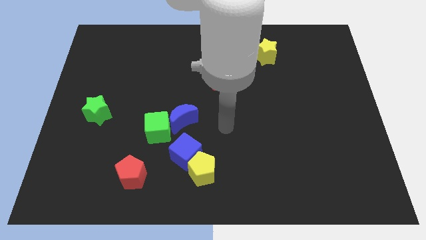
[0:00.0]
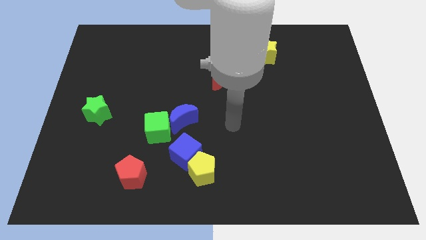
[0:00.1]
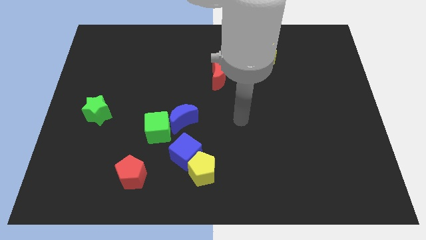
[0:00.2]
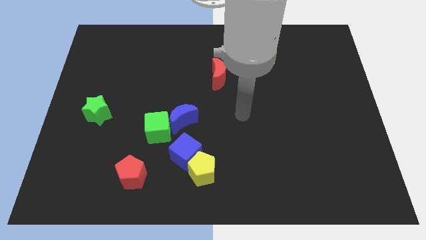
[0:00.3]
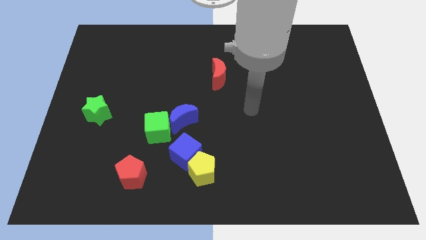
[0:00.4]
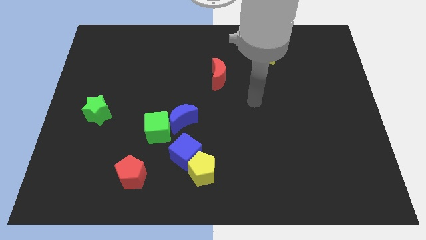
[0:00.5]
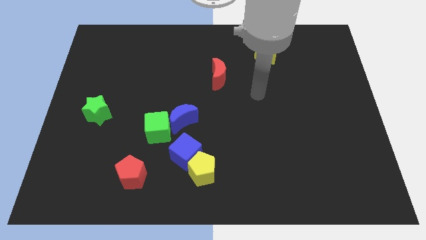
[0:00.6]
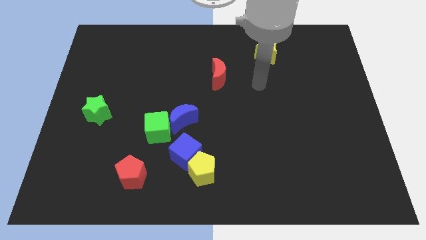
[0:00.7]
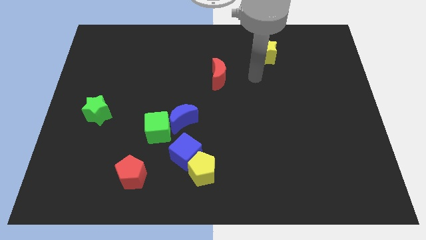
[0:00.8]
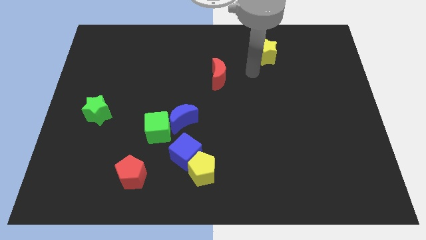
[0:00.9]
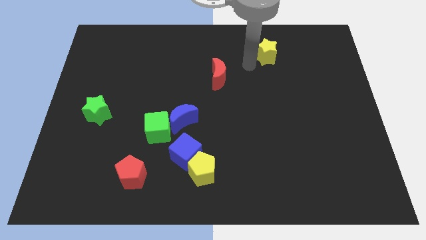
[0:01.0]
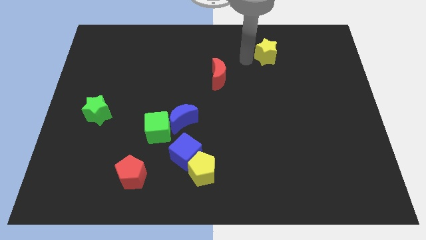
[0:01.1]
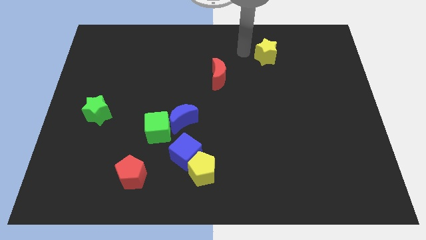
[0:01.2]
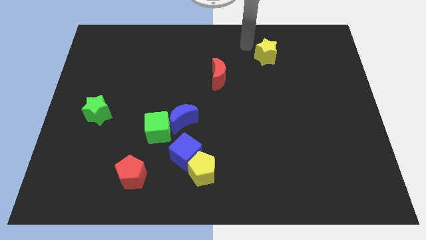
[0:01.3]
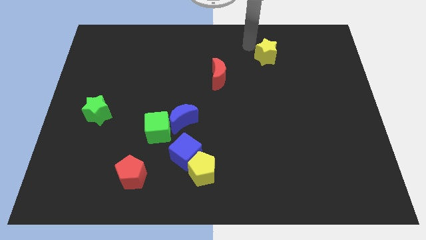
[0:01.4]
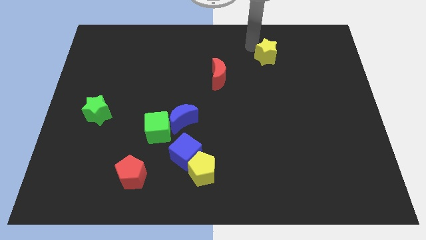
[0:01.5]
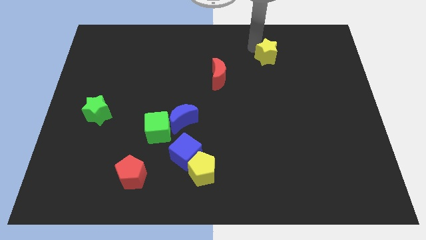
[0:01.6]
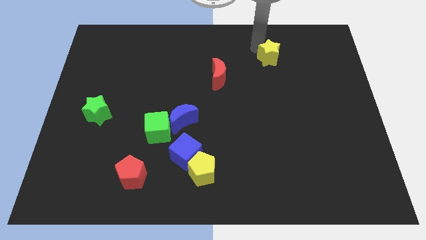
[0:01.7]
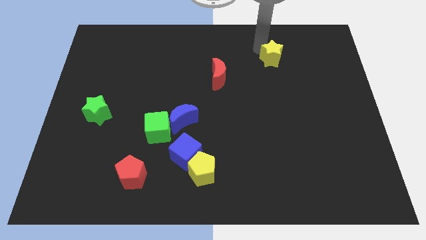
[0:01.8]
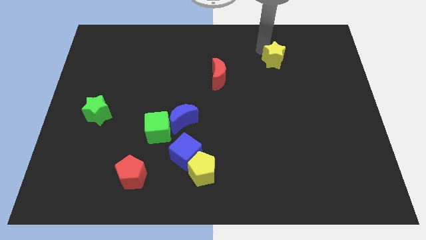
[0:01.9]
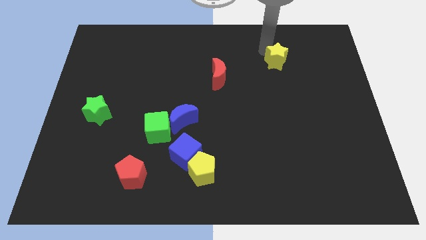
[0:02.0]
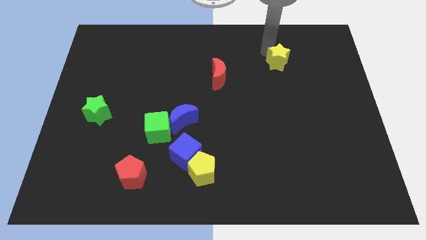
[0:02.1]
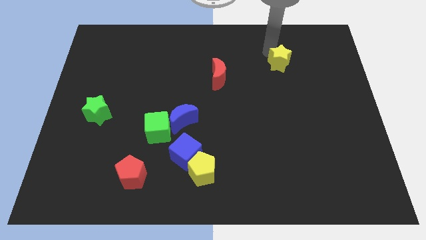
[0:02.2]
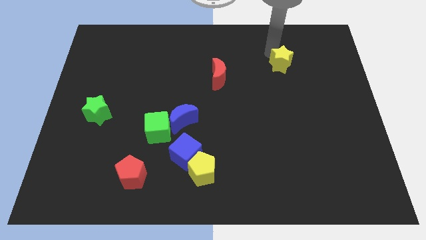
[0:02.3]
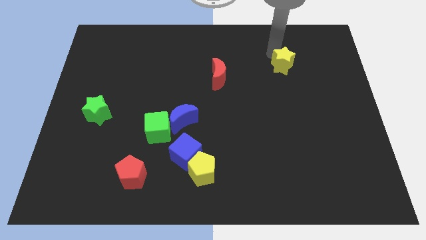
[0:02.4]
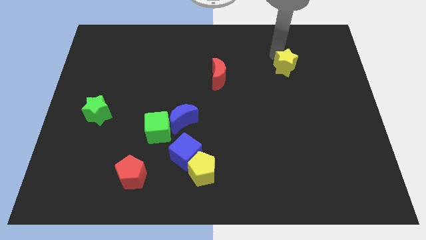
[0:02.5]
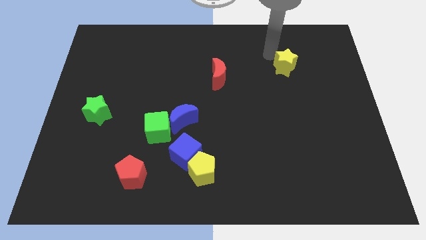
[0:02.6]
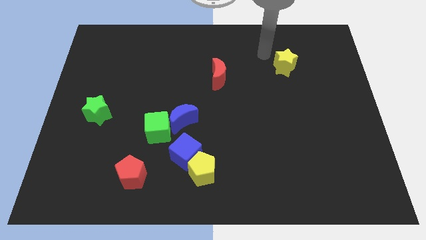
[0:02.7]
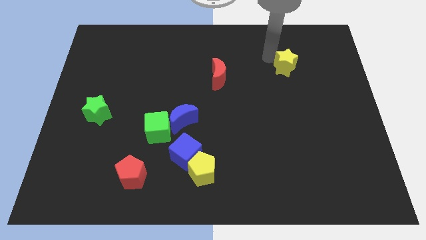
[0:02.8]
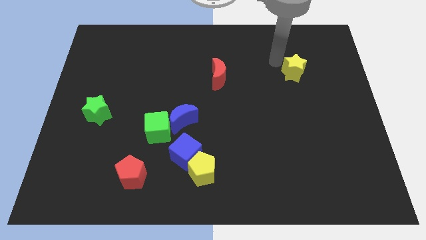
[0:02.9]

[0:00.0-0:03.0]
slightly move the yellow star down and to the right diagonally

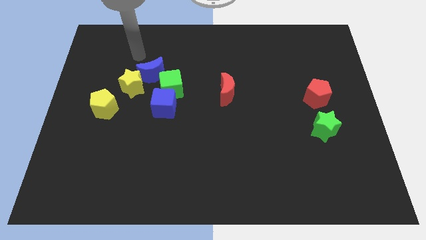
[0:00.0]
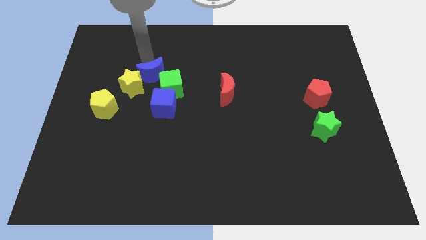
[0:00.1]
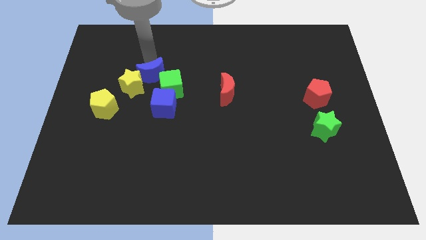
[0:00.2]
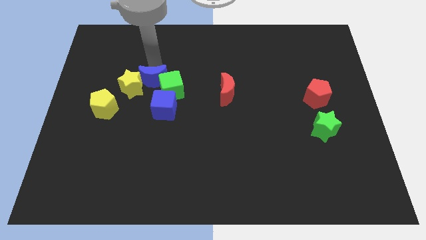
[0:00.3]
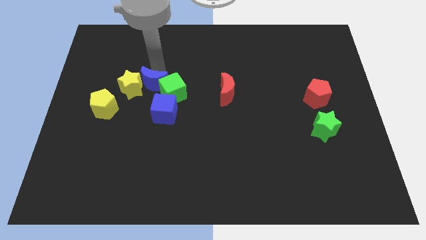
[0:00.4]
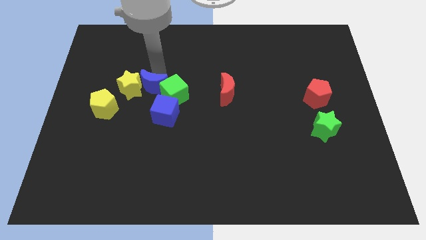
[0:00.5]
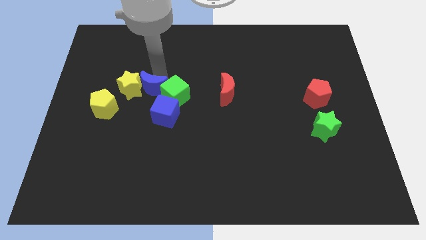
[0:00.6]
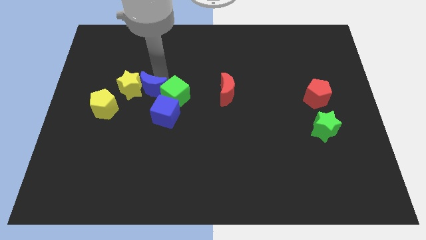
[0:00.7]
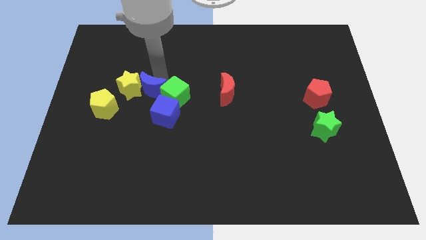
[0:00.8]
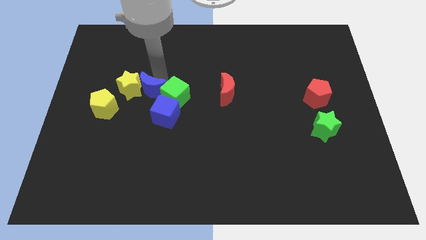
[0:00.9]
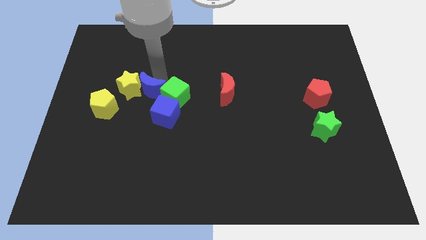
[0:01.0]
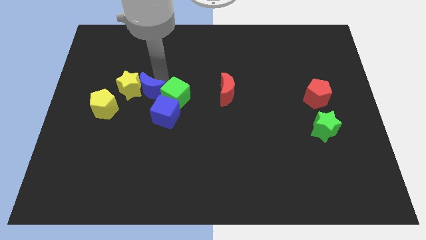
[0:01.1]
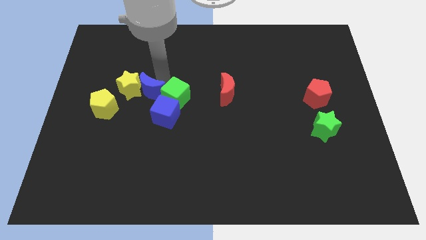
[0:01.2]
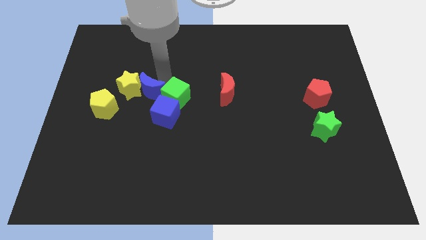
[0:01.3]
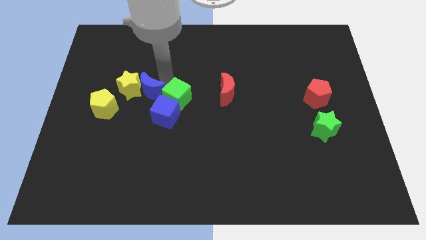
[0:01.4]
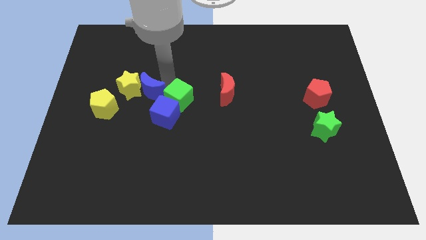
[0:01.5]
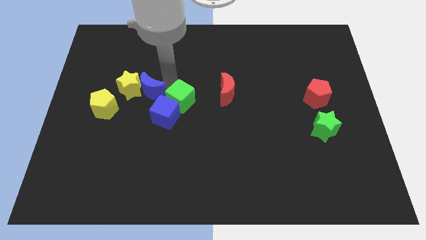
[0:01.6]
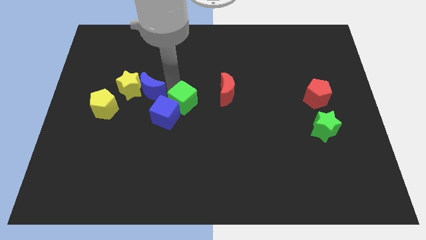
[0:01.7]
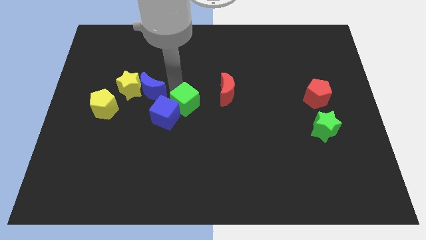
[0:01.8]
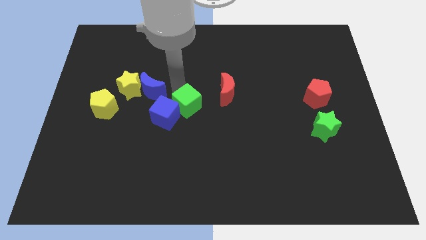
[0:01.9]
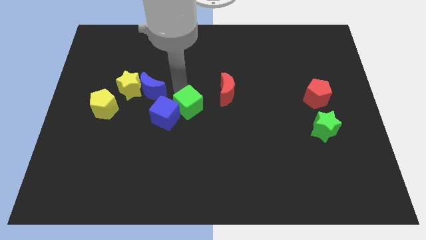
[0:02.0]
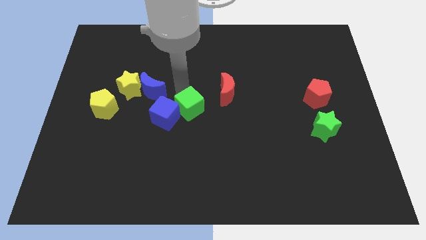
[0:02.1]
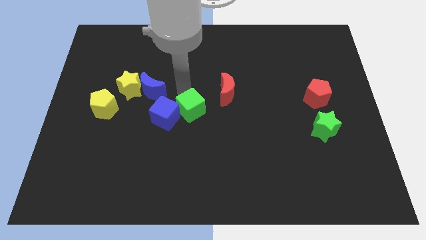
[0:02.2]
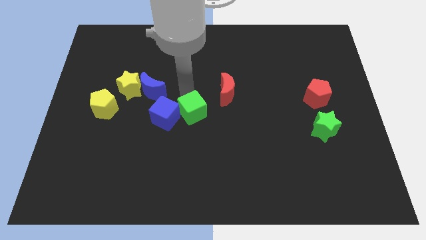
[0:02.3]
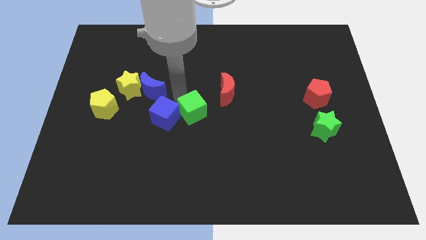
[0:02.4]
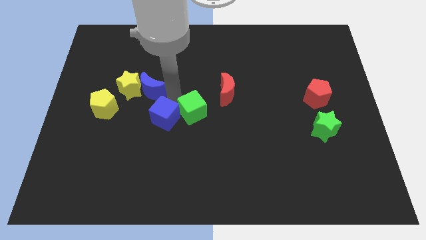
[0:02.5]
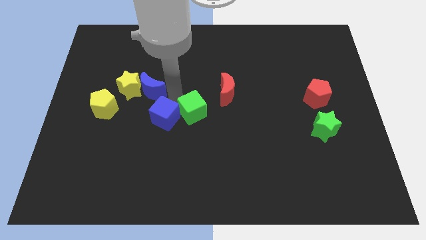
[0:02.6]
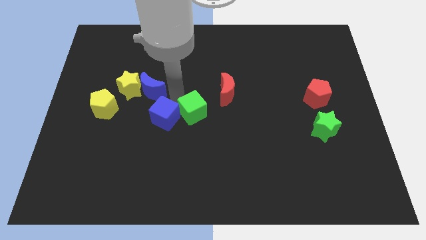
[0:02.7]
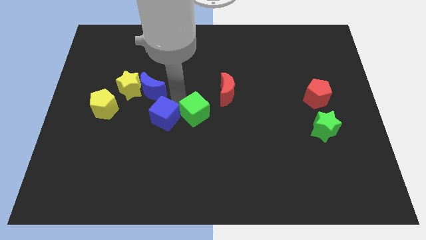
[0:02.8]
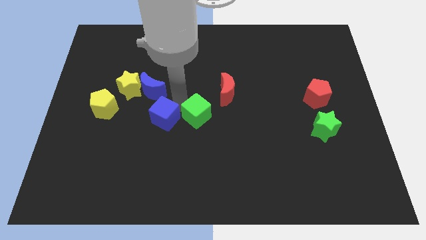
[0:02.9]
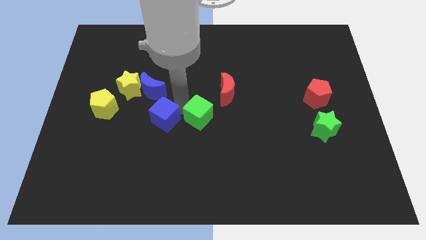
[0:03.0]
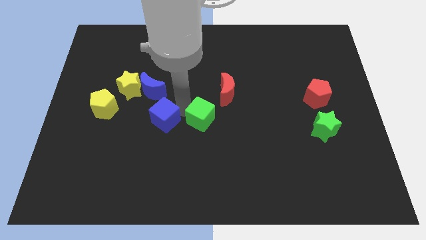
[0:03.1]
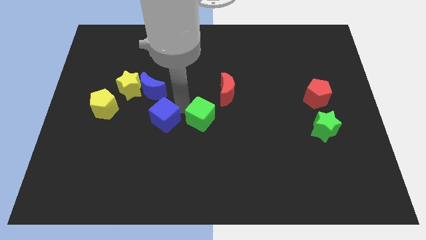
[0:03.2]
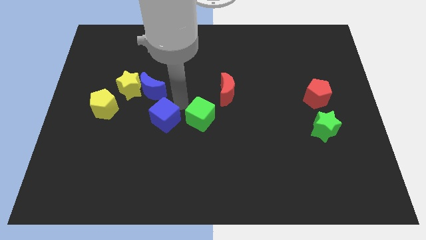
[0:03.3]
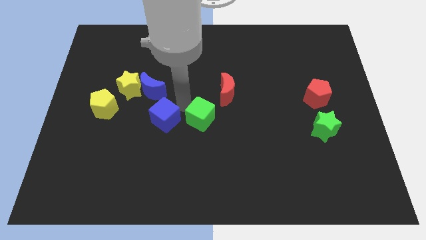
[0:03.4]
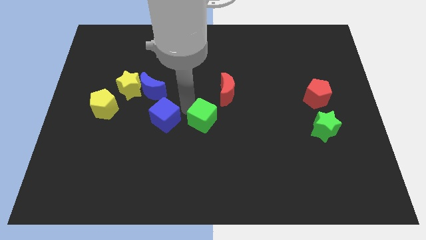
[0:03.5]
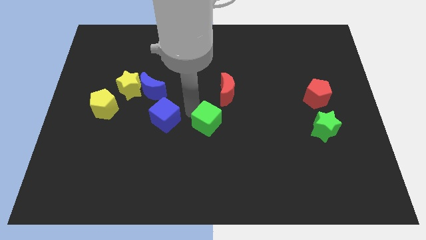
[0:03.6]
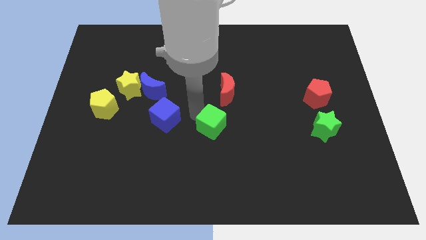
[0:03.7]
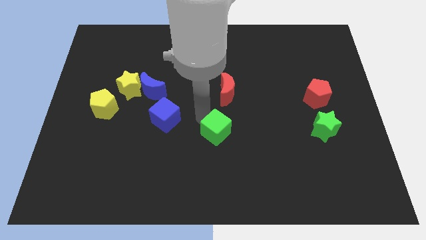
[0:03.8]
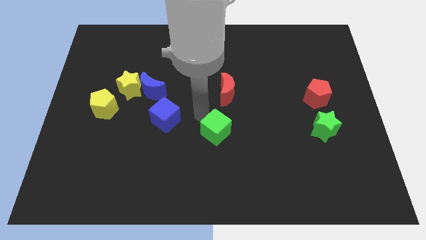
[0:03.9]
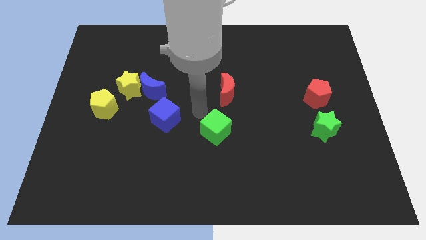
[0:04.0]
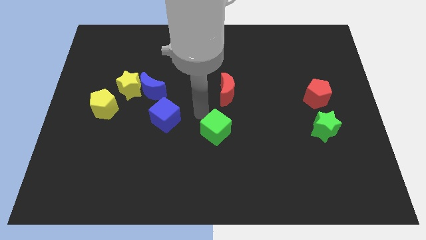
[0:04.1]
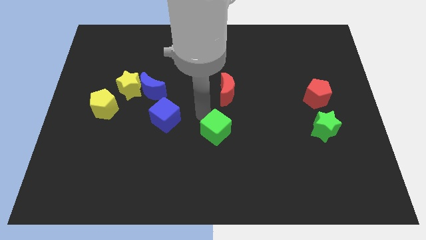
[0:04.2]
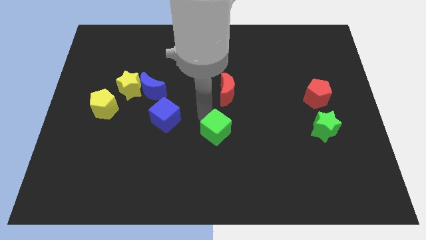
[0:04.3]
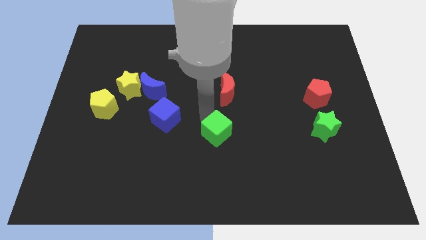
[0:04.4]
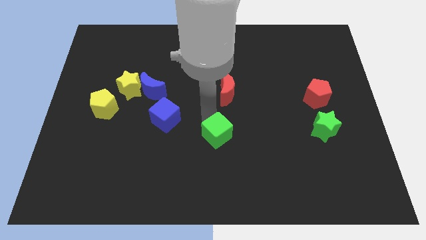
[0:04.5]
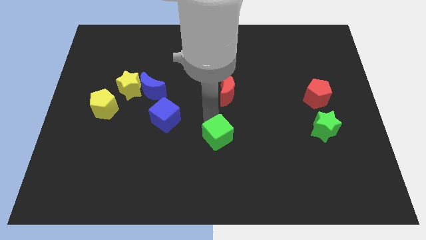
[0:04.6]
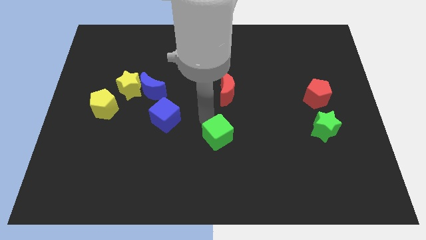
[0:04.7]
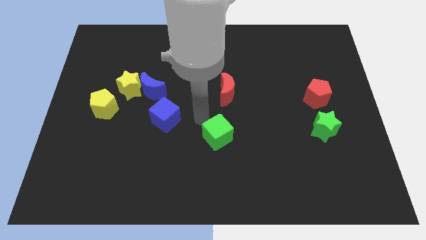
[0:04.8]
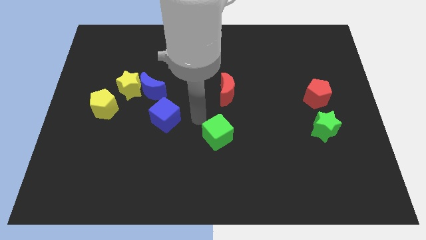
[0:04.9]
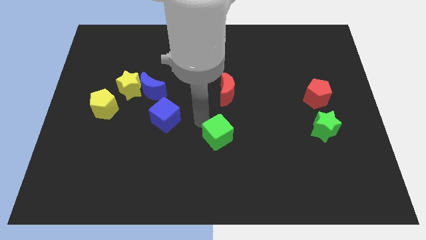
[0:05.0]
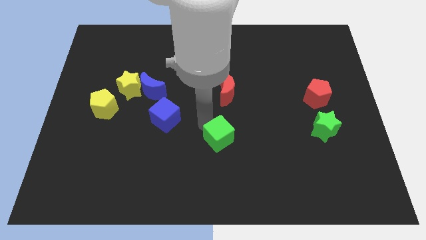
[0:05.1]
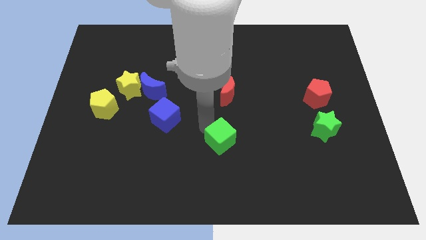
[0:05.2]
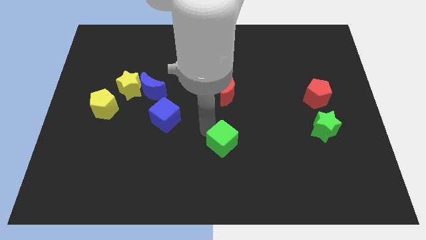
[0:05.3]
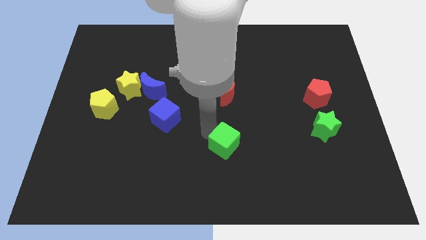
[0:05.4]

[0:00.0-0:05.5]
push the green cube diagonally downwards and right
